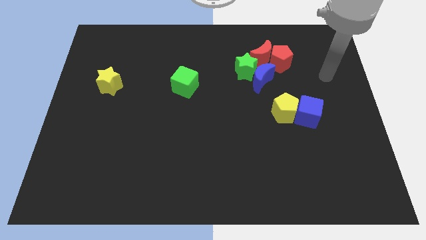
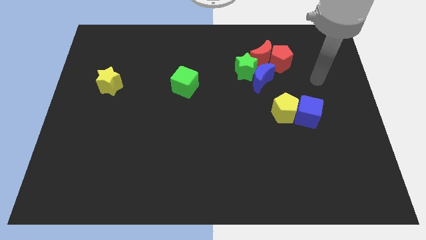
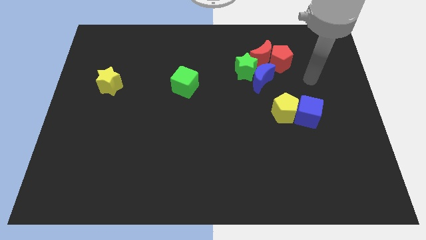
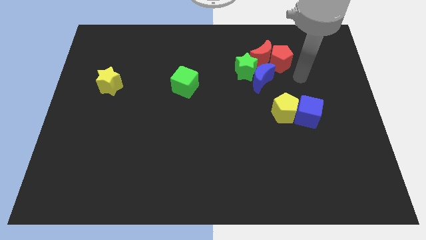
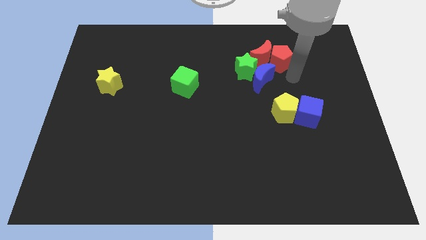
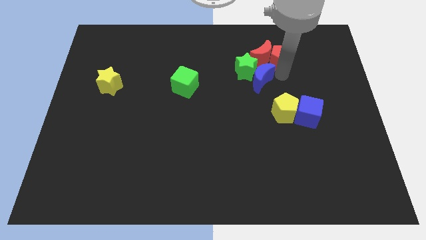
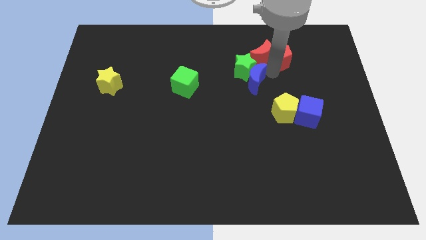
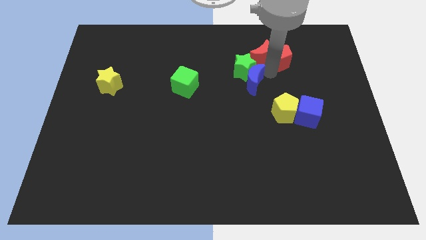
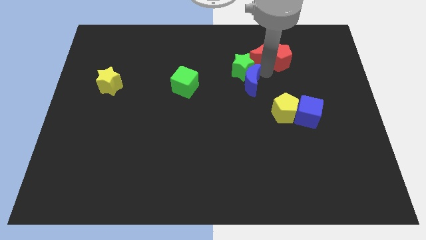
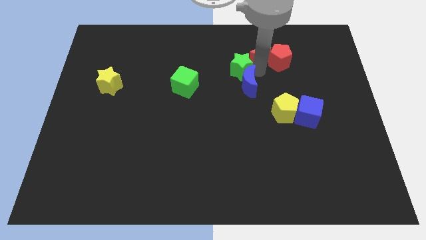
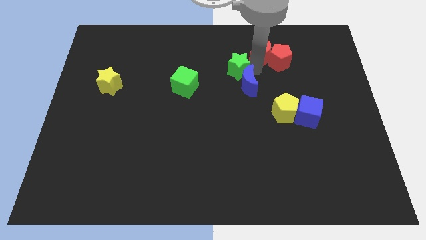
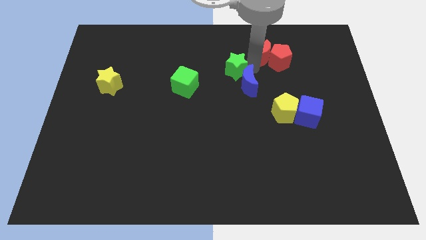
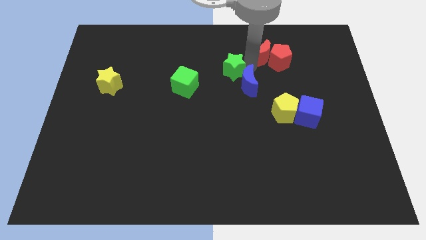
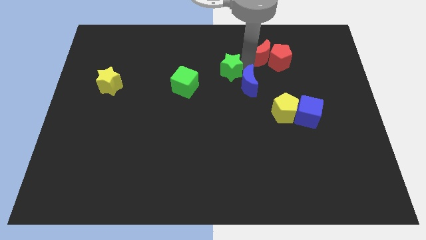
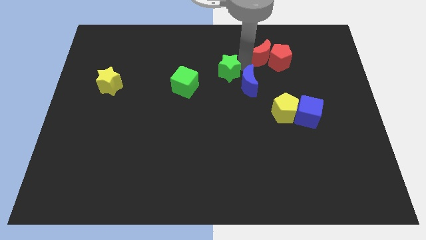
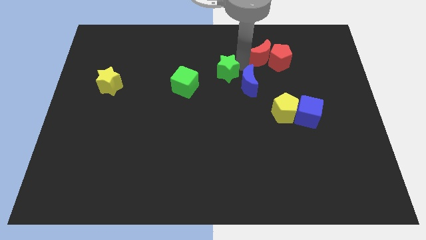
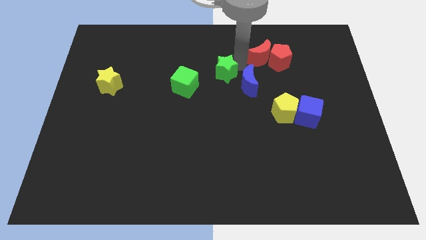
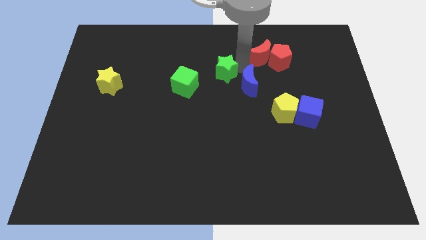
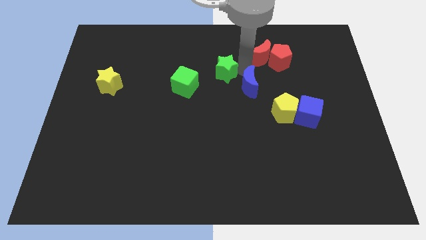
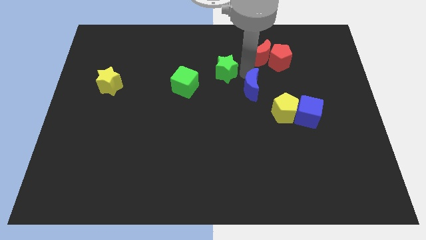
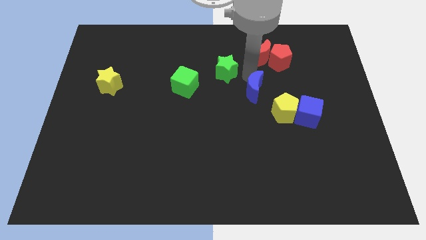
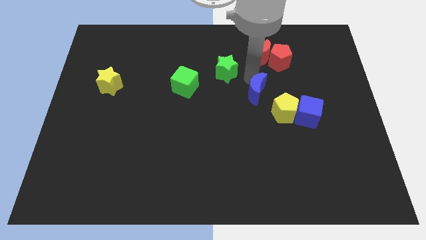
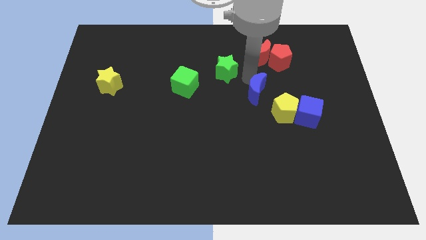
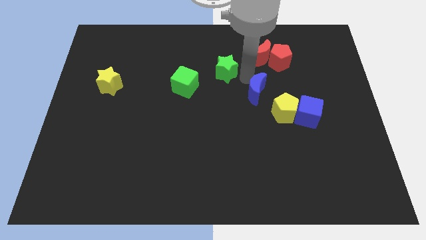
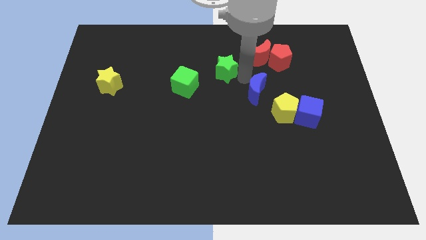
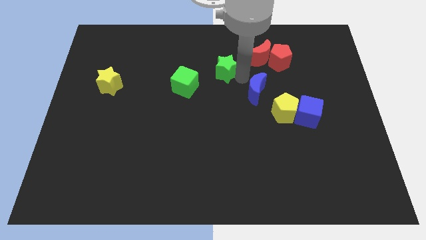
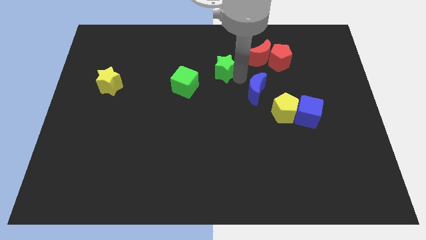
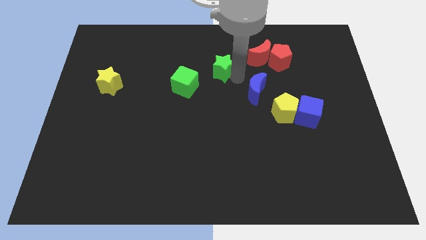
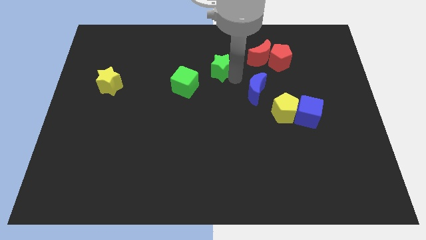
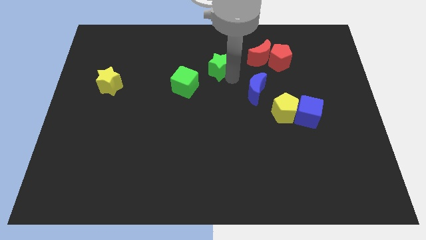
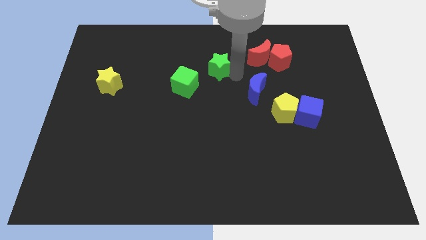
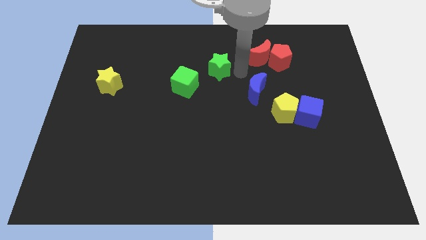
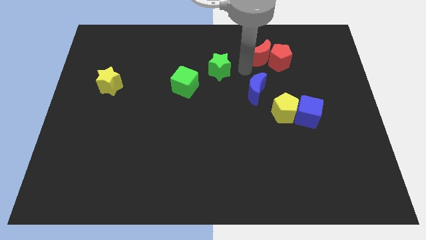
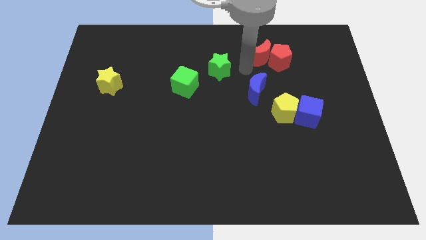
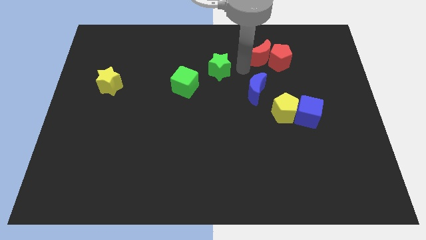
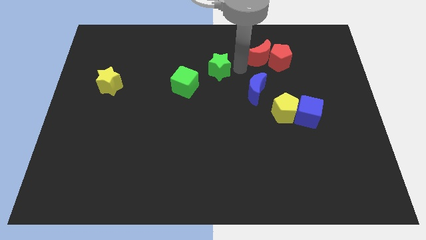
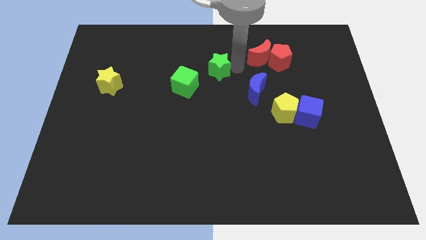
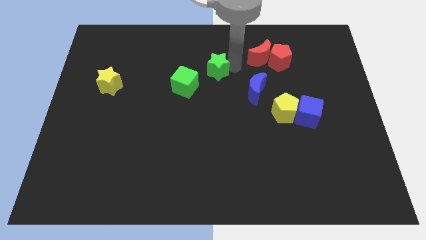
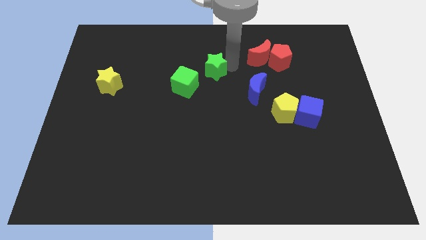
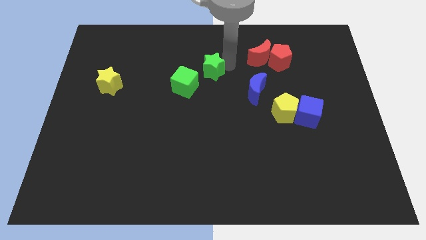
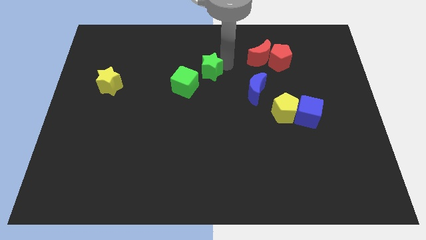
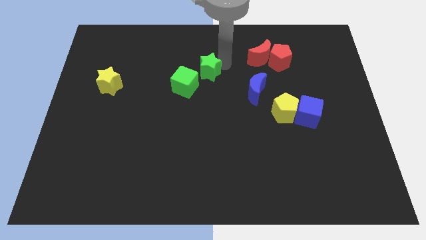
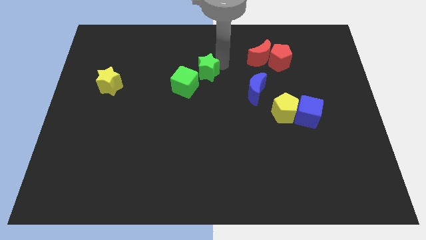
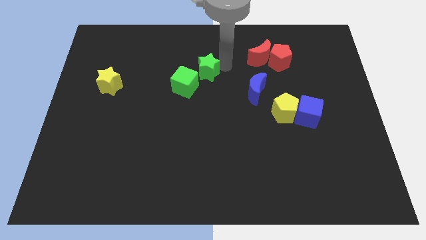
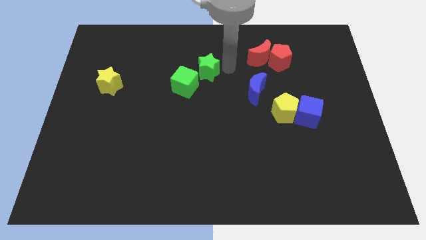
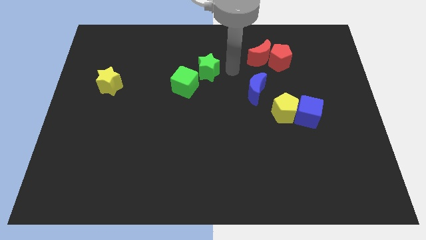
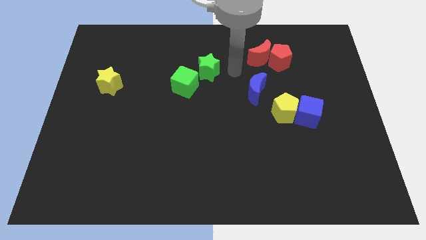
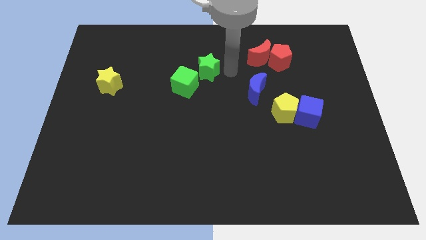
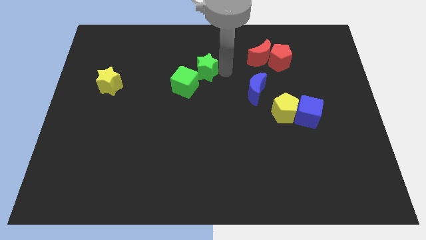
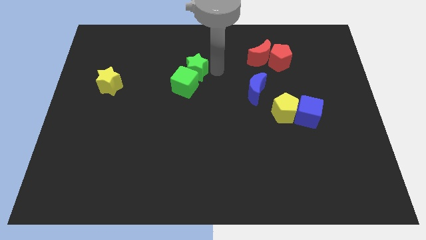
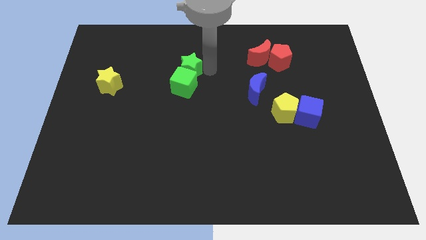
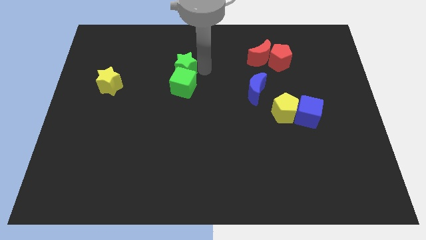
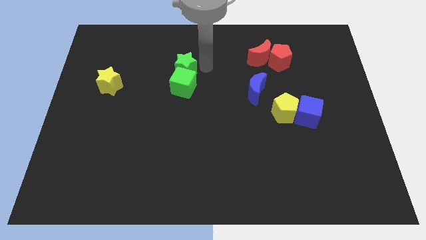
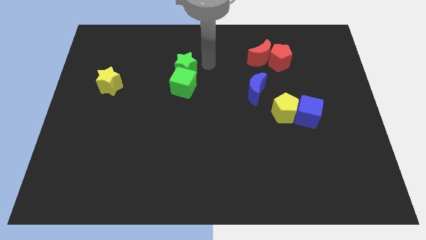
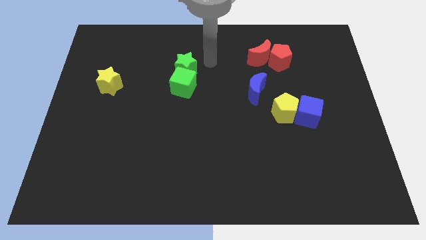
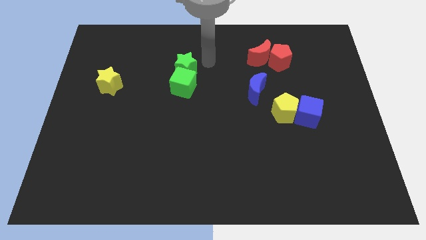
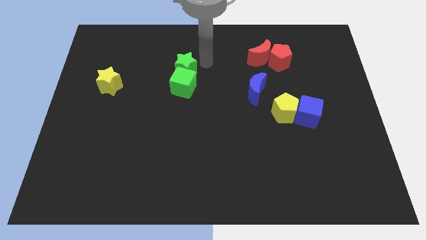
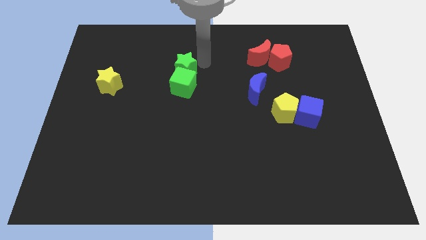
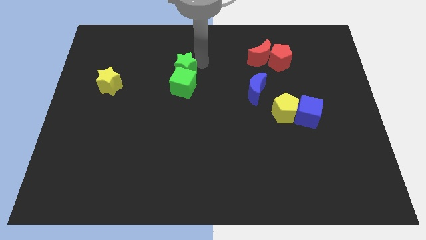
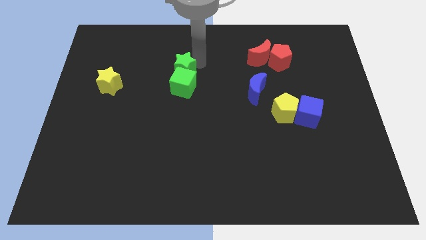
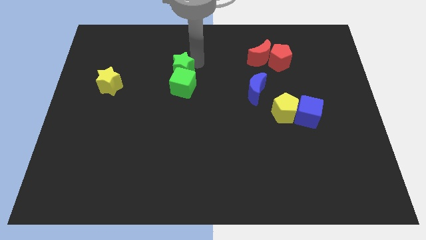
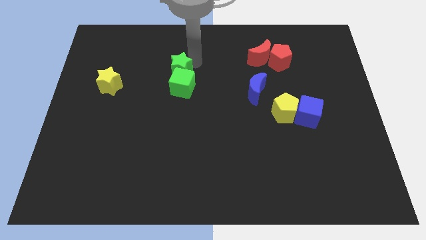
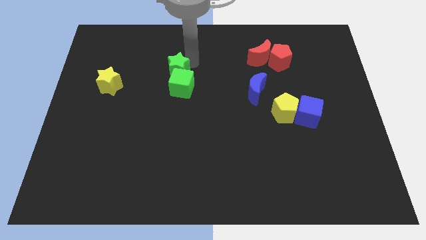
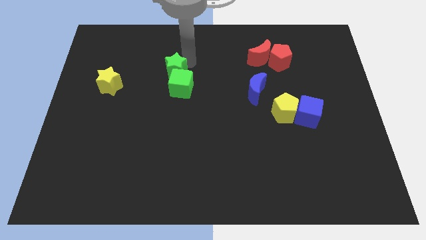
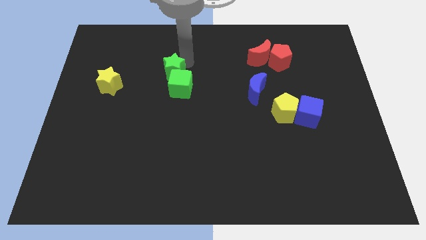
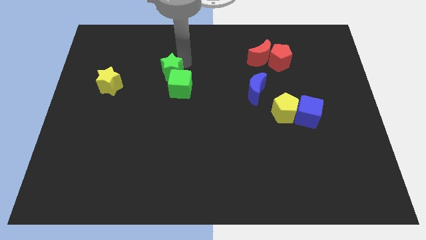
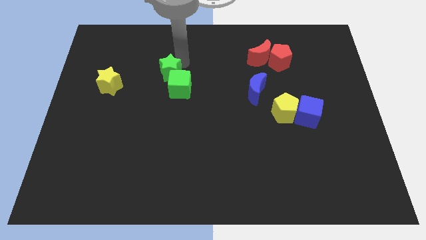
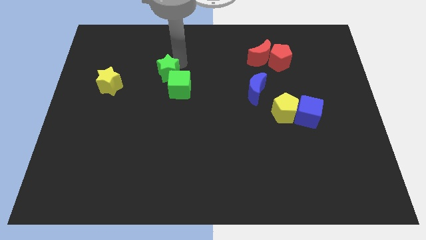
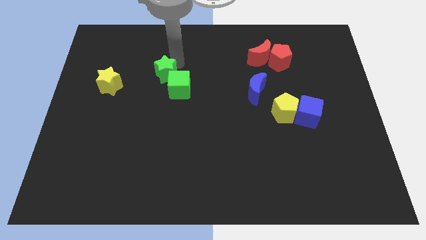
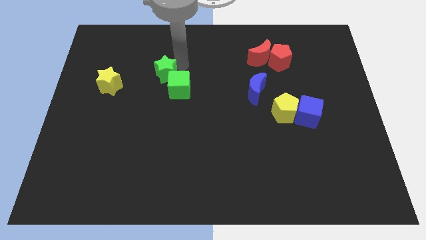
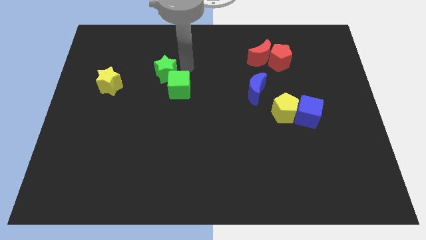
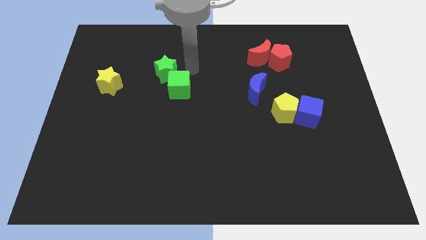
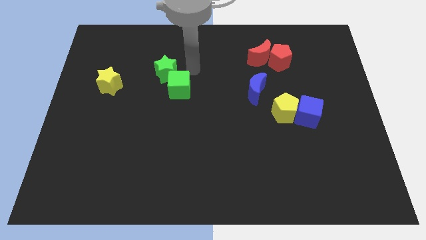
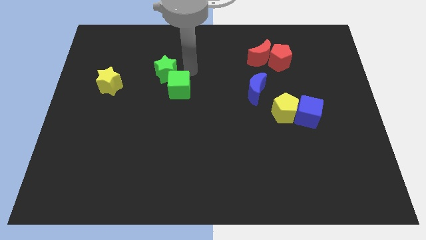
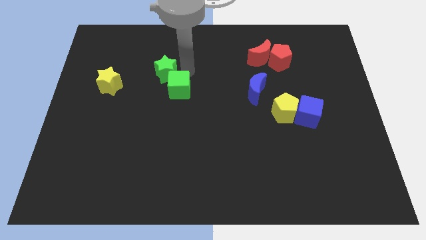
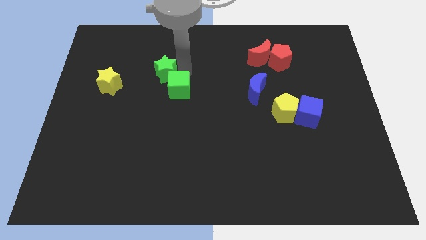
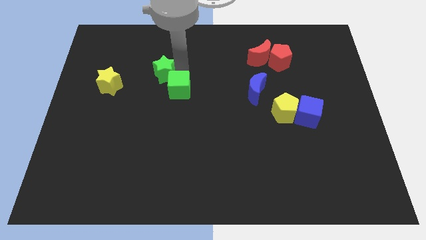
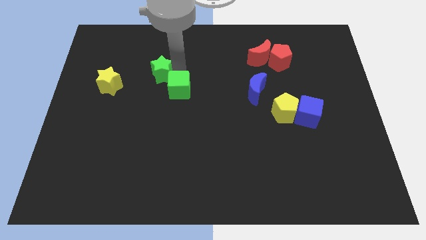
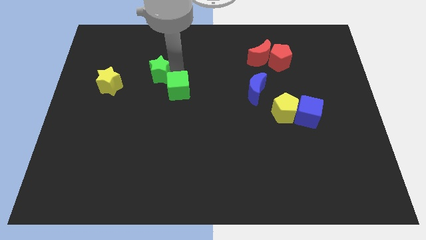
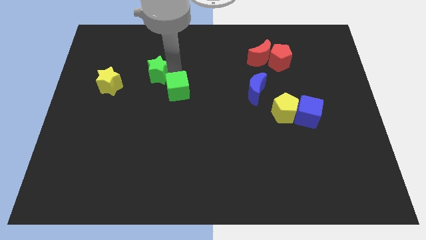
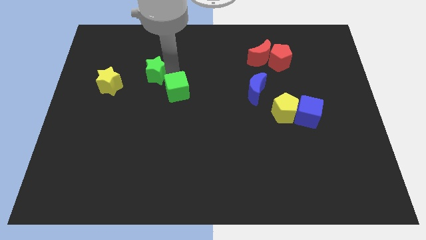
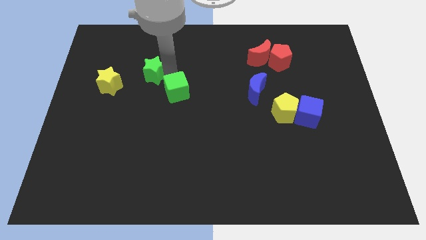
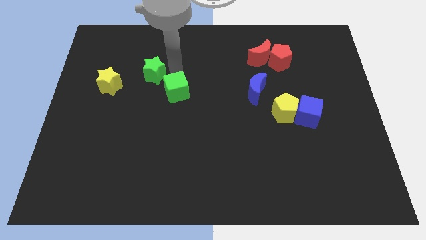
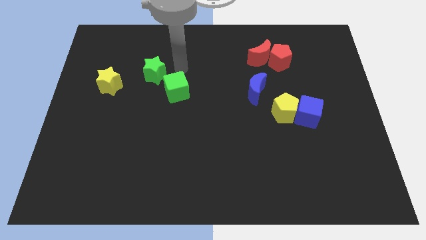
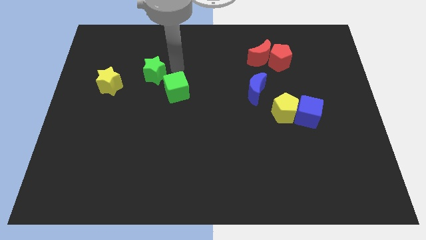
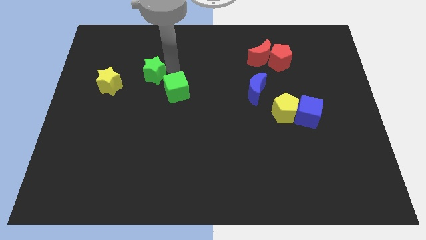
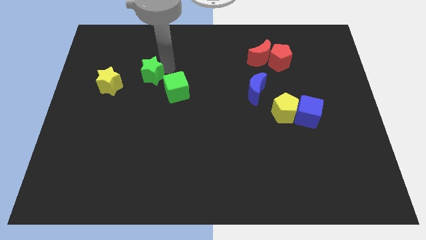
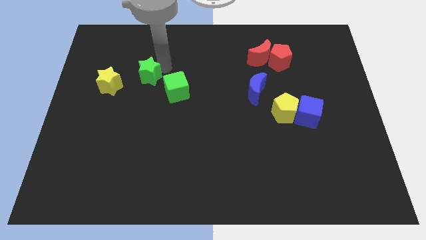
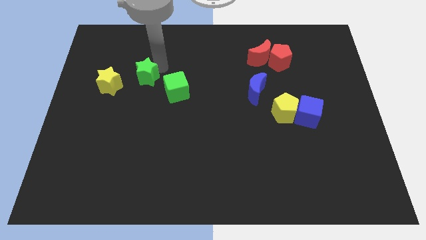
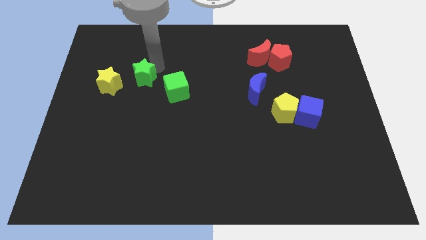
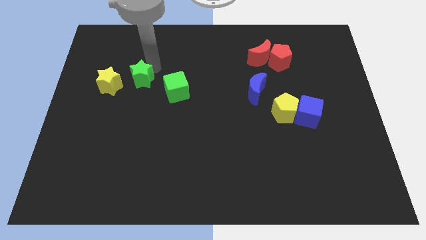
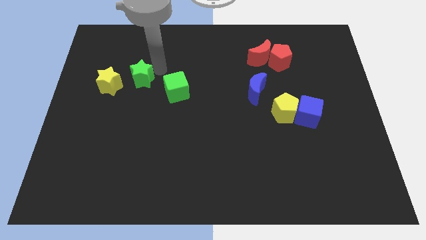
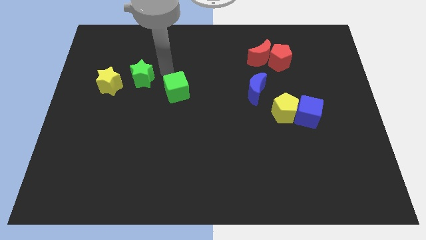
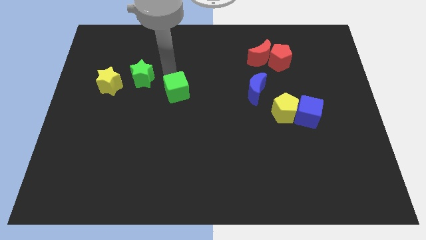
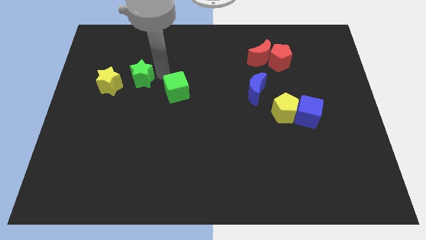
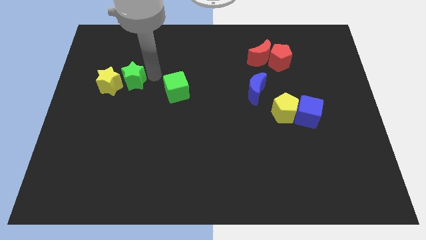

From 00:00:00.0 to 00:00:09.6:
put the green star to the yellow star
